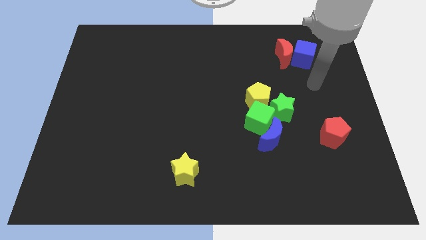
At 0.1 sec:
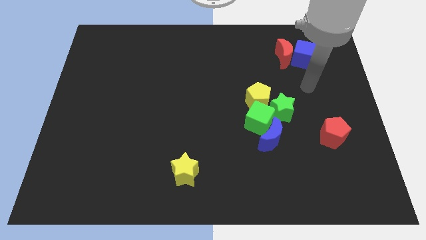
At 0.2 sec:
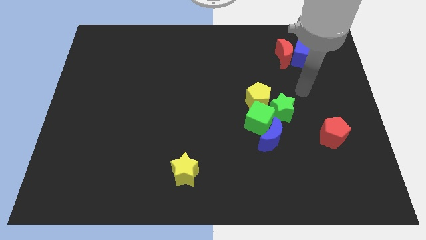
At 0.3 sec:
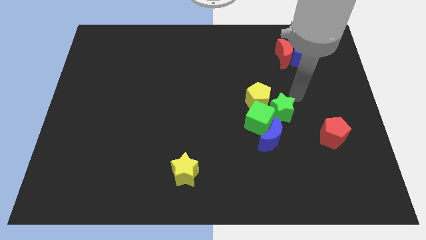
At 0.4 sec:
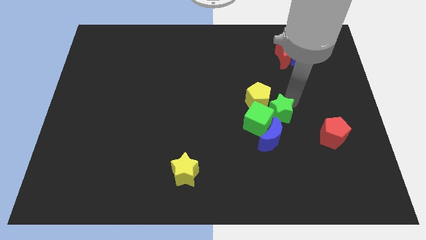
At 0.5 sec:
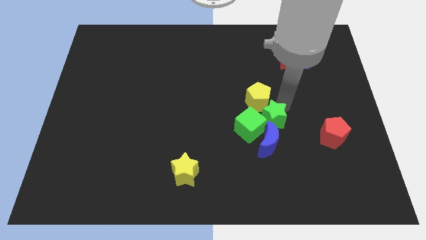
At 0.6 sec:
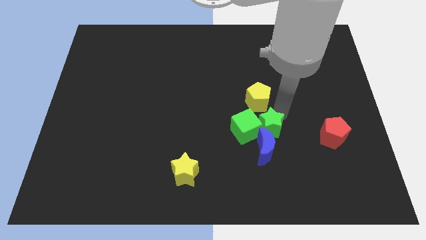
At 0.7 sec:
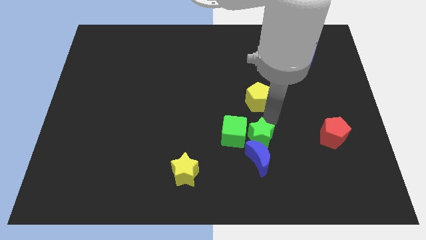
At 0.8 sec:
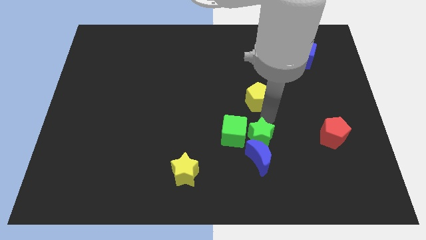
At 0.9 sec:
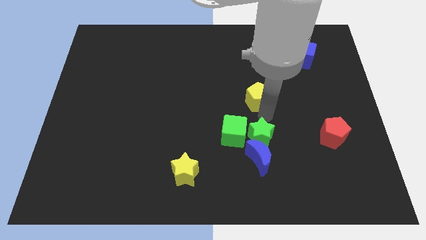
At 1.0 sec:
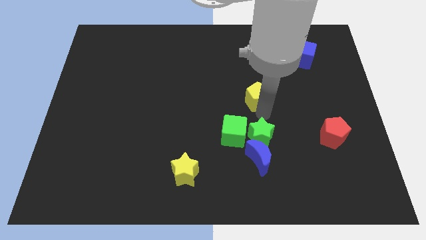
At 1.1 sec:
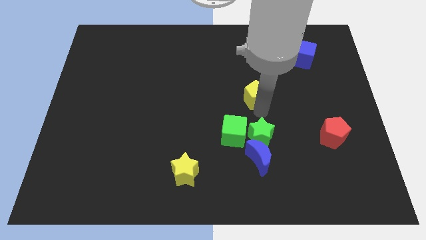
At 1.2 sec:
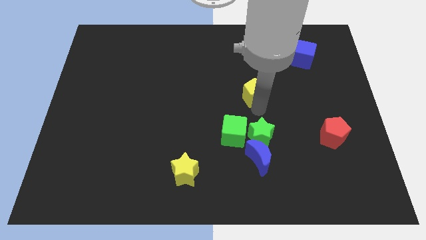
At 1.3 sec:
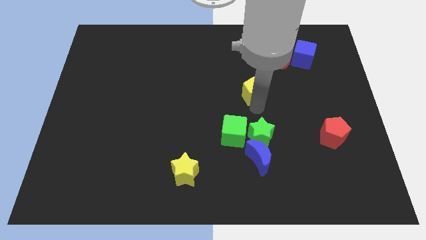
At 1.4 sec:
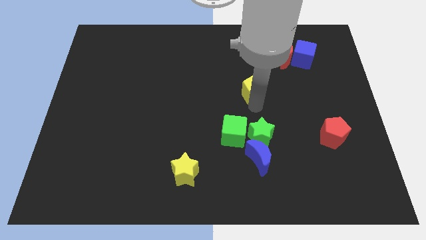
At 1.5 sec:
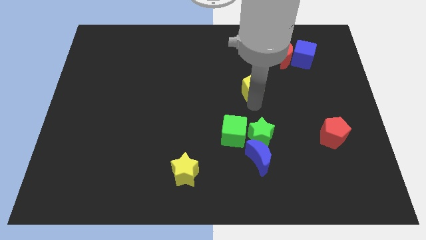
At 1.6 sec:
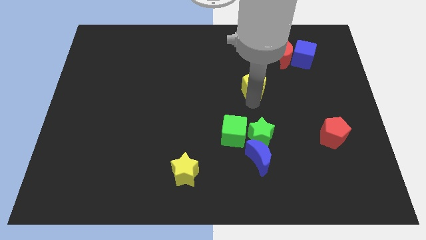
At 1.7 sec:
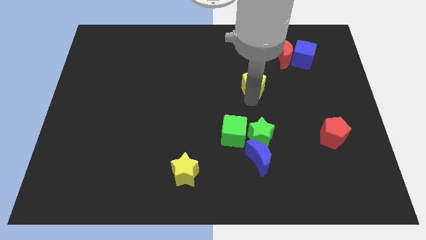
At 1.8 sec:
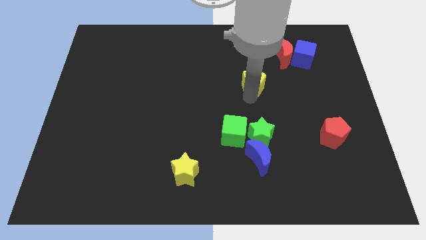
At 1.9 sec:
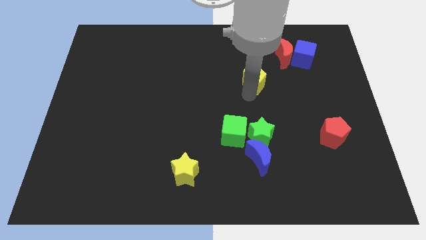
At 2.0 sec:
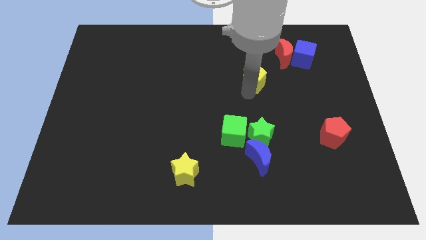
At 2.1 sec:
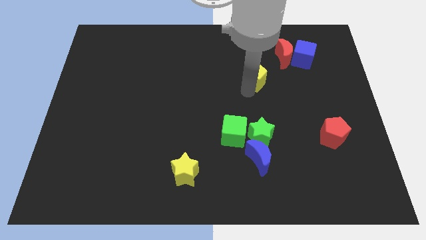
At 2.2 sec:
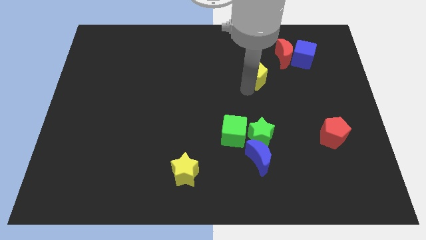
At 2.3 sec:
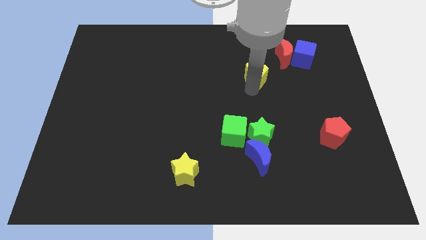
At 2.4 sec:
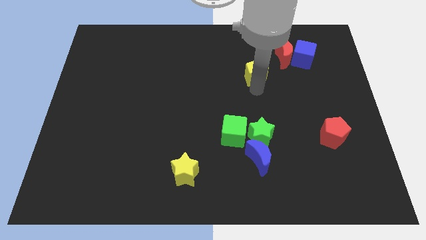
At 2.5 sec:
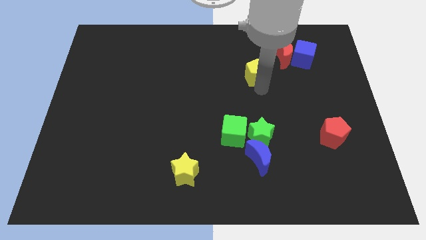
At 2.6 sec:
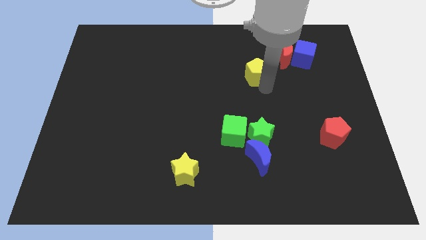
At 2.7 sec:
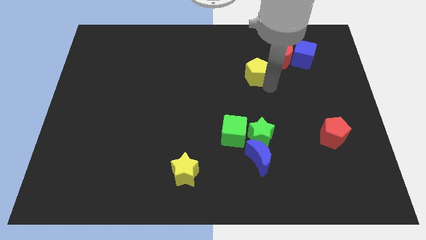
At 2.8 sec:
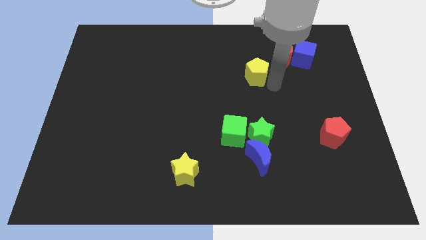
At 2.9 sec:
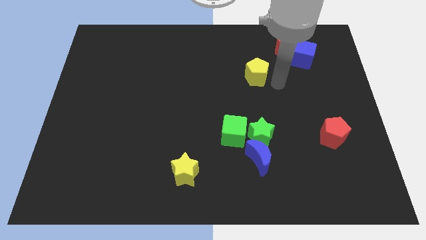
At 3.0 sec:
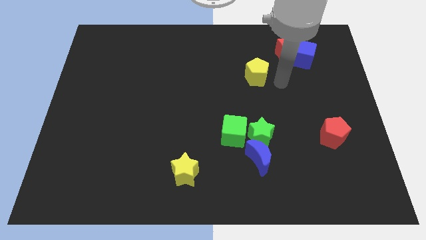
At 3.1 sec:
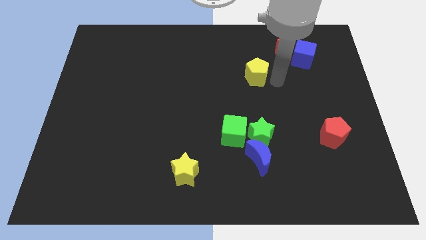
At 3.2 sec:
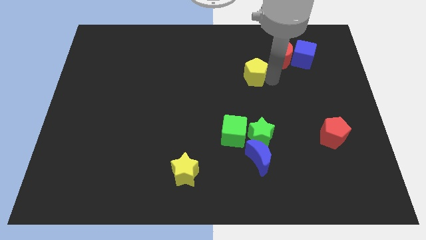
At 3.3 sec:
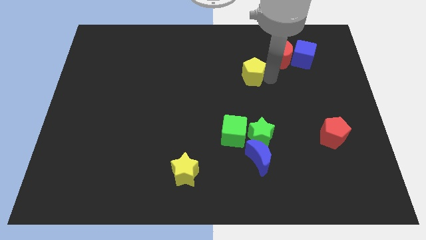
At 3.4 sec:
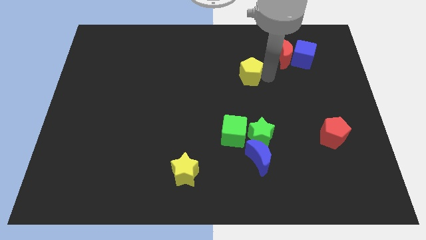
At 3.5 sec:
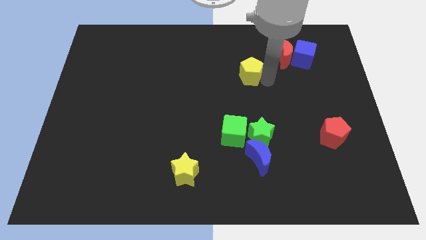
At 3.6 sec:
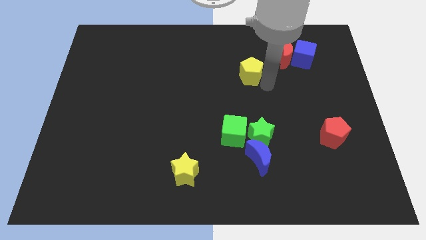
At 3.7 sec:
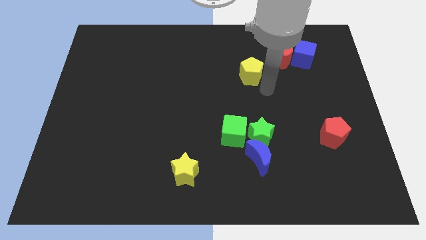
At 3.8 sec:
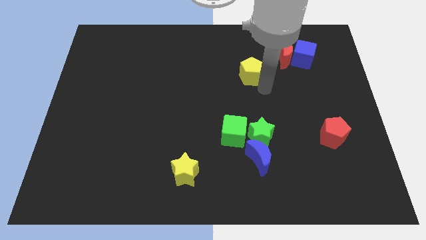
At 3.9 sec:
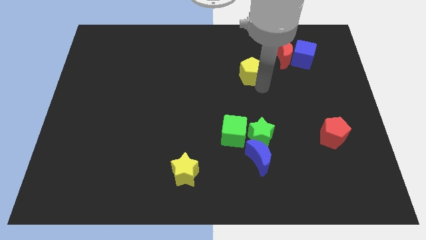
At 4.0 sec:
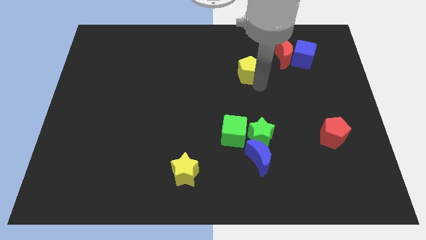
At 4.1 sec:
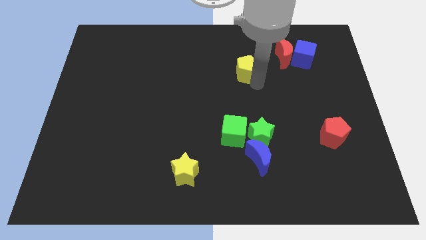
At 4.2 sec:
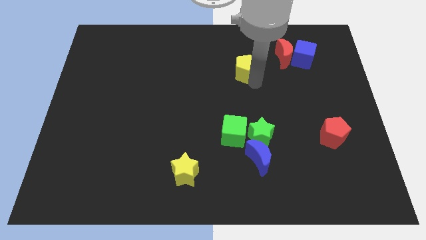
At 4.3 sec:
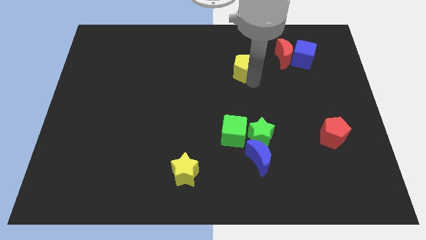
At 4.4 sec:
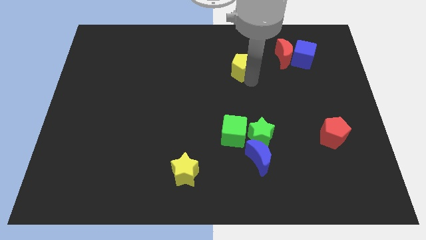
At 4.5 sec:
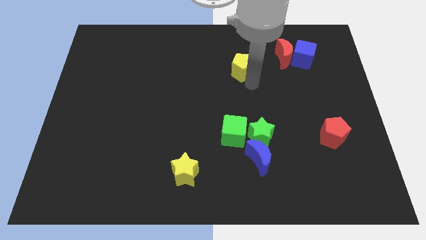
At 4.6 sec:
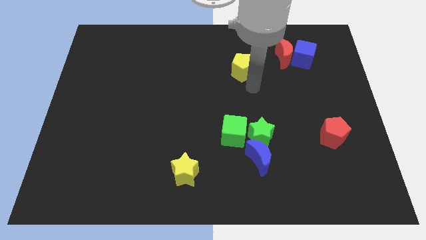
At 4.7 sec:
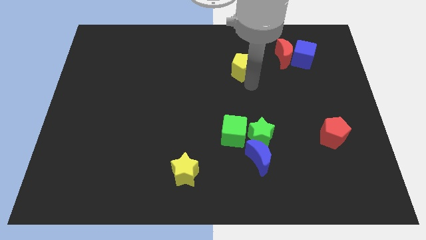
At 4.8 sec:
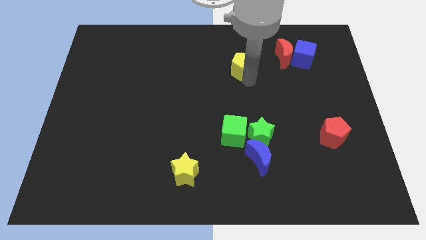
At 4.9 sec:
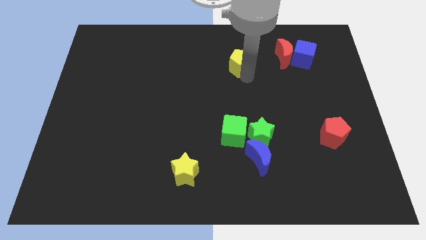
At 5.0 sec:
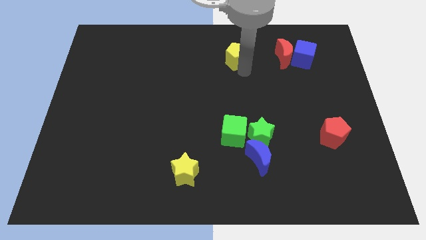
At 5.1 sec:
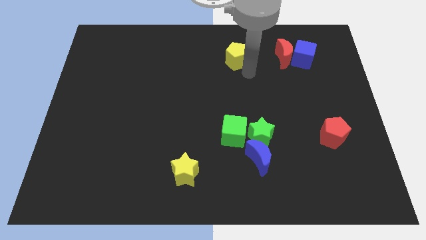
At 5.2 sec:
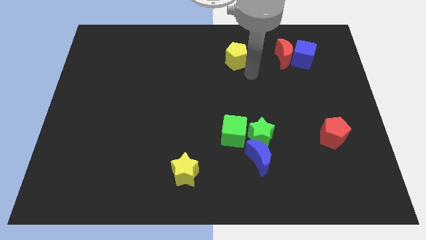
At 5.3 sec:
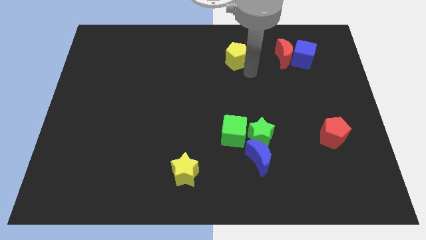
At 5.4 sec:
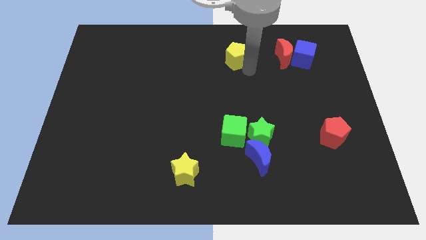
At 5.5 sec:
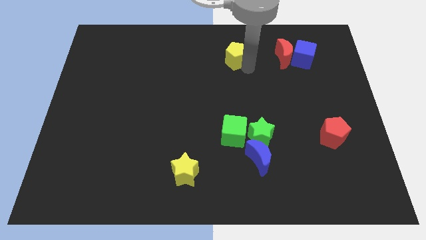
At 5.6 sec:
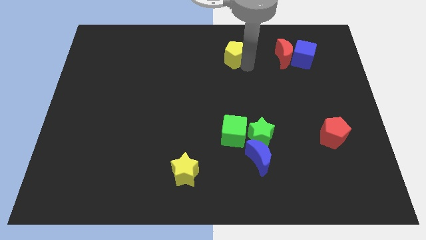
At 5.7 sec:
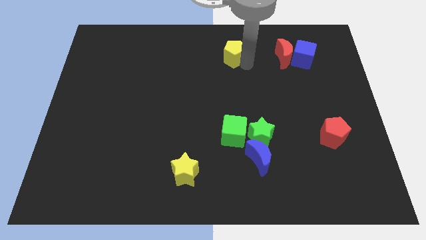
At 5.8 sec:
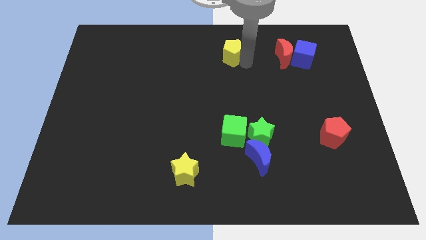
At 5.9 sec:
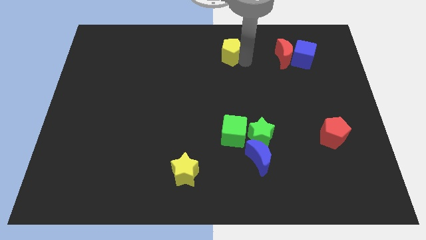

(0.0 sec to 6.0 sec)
move the yellow pentagon to the top

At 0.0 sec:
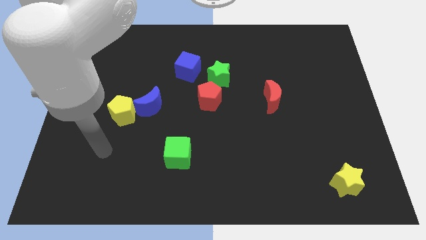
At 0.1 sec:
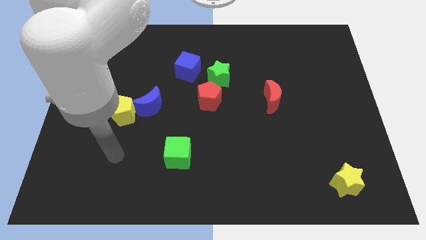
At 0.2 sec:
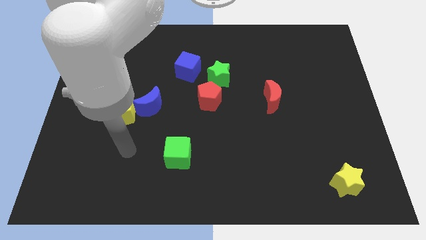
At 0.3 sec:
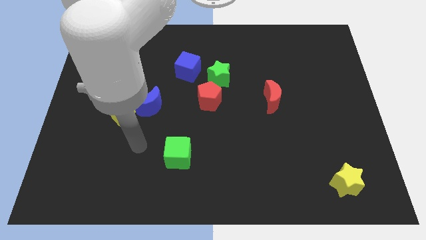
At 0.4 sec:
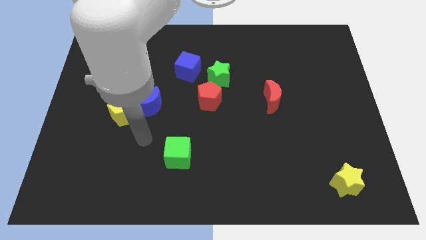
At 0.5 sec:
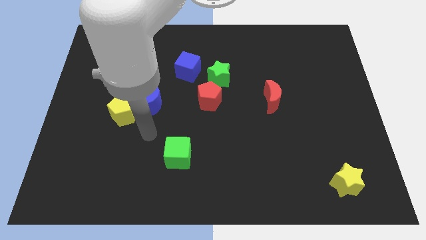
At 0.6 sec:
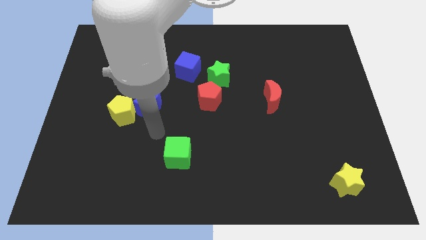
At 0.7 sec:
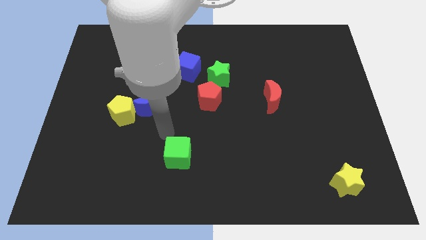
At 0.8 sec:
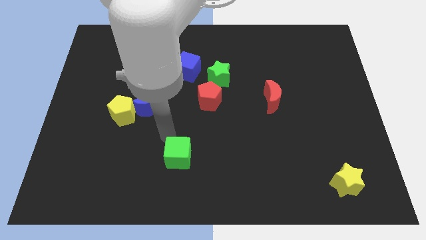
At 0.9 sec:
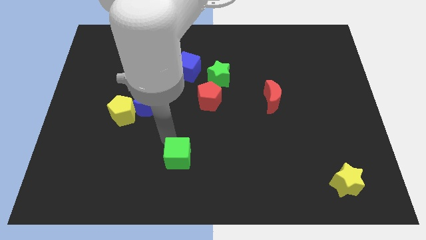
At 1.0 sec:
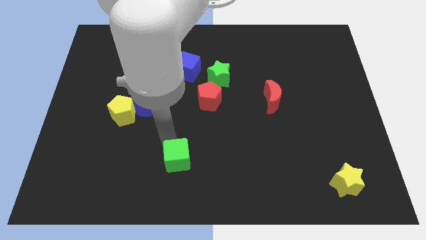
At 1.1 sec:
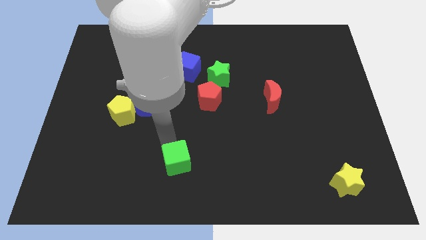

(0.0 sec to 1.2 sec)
push the green cube to the bottom

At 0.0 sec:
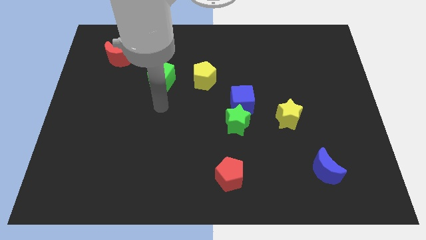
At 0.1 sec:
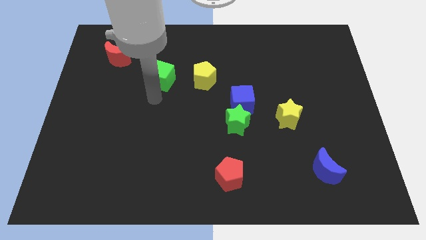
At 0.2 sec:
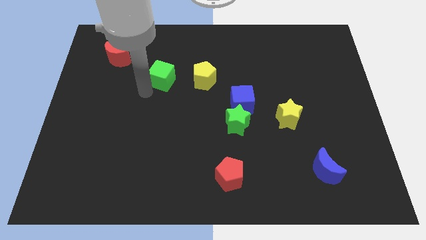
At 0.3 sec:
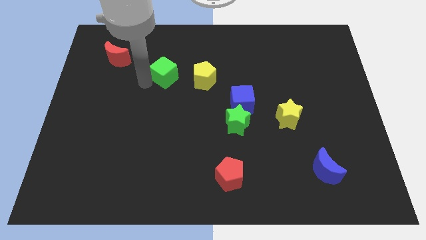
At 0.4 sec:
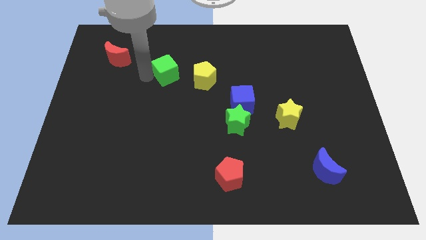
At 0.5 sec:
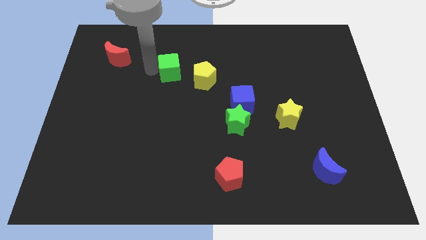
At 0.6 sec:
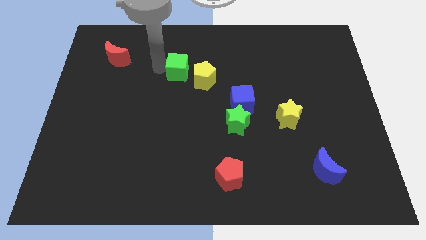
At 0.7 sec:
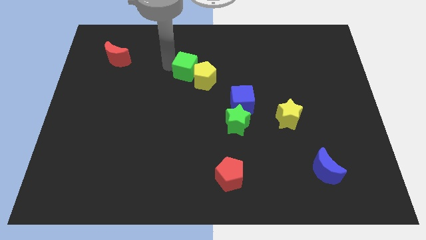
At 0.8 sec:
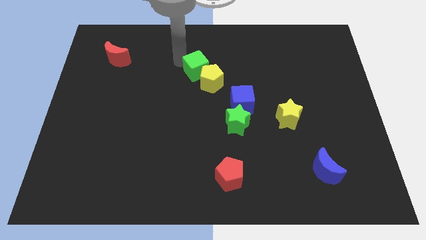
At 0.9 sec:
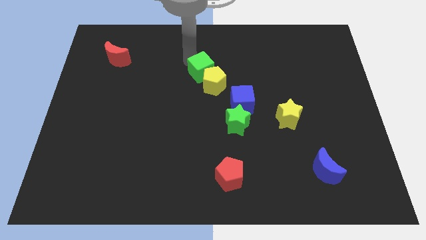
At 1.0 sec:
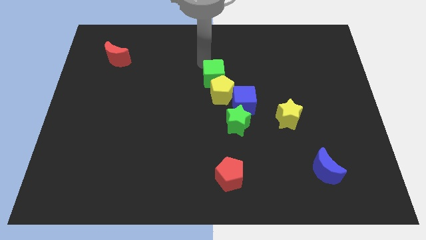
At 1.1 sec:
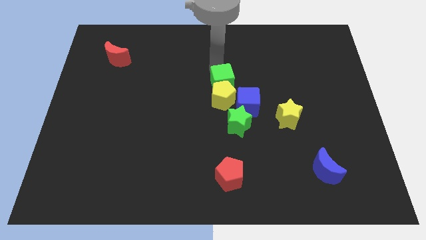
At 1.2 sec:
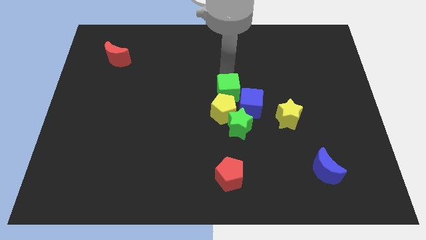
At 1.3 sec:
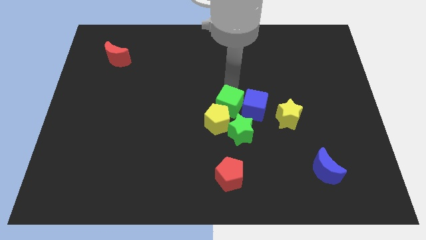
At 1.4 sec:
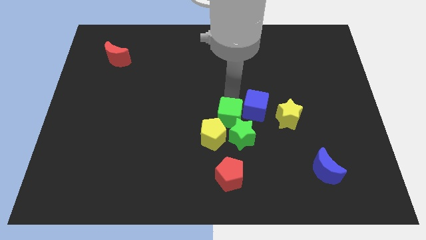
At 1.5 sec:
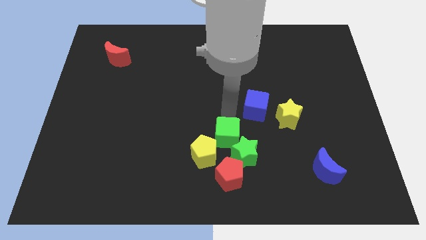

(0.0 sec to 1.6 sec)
move the yellow pentagon to the bottom side
